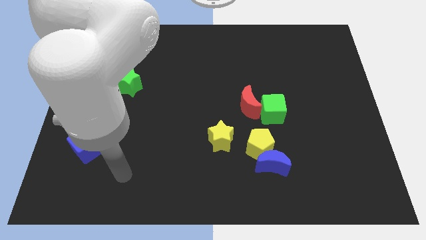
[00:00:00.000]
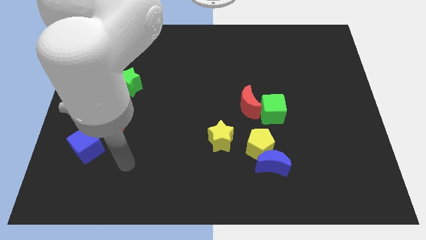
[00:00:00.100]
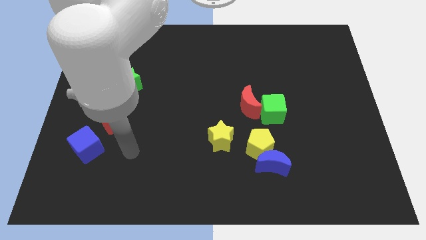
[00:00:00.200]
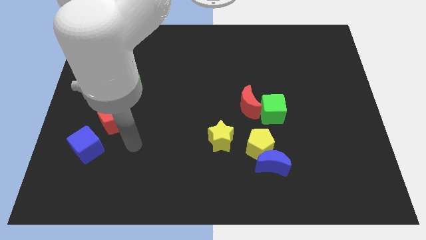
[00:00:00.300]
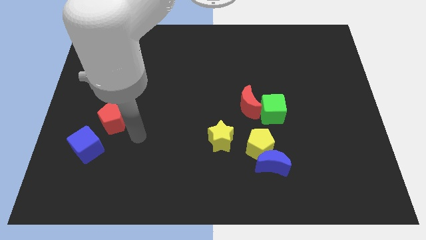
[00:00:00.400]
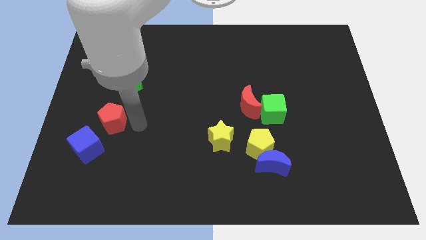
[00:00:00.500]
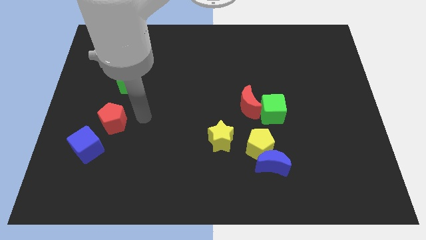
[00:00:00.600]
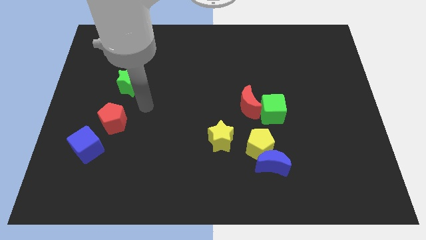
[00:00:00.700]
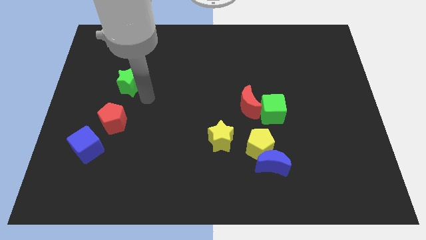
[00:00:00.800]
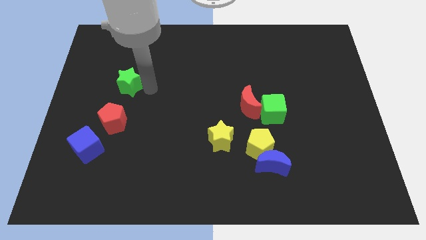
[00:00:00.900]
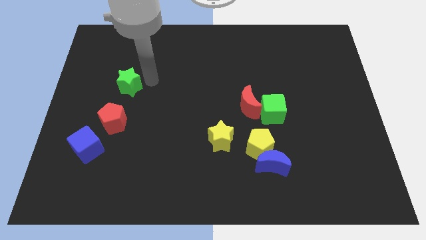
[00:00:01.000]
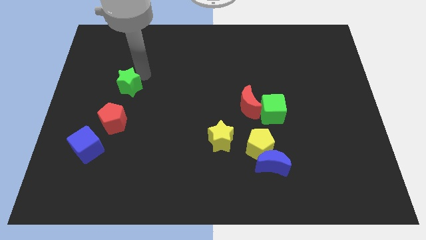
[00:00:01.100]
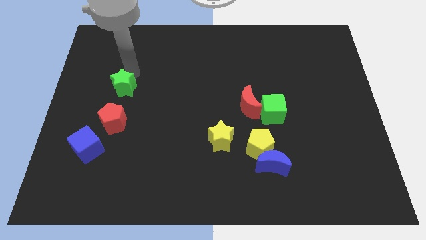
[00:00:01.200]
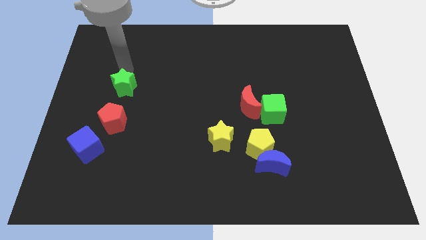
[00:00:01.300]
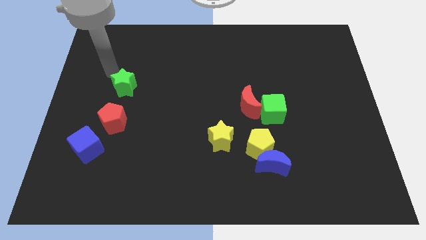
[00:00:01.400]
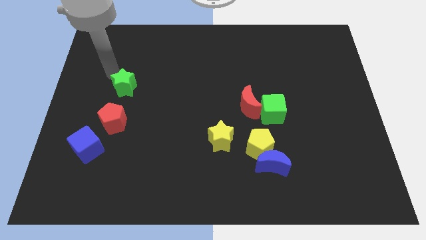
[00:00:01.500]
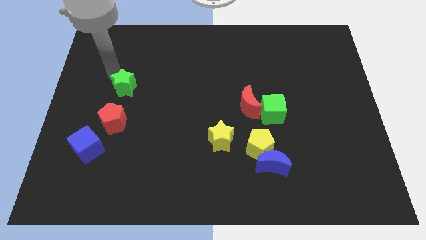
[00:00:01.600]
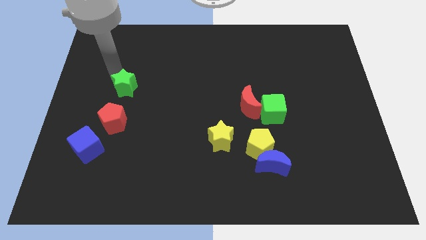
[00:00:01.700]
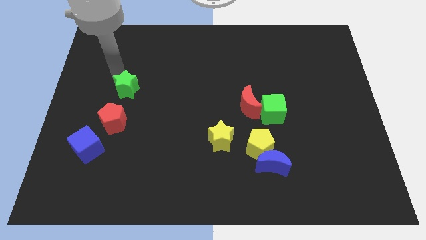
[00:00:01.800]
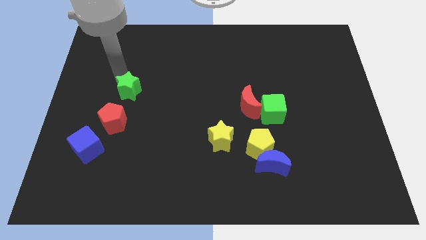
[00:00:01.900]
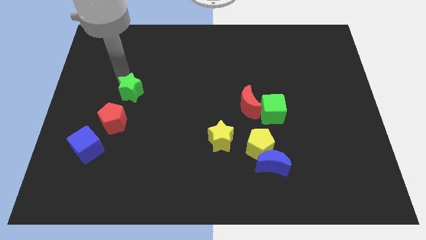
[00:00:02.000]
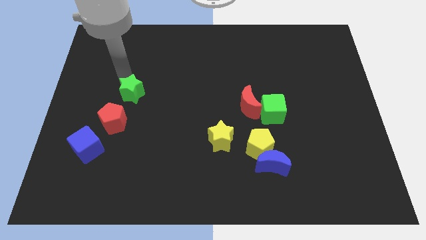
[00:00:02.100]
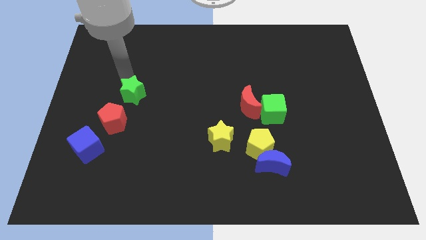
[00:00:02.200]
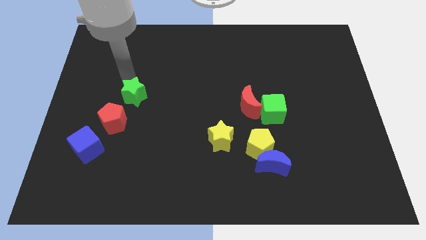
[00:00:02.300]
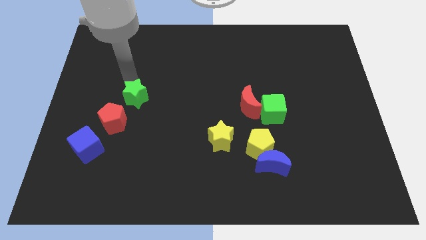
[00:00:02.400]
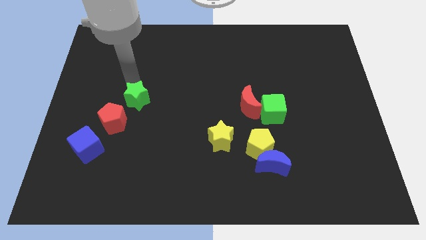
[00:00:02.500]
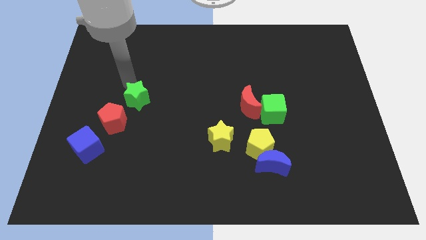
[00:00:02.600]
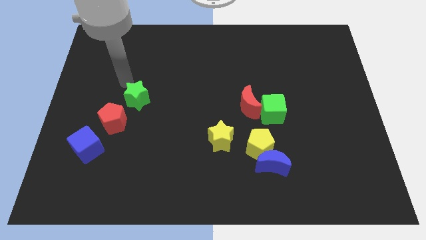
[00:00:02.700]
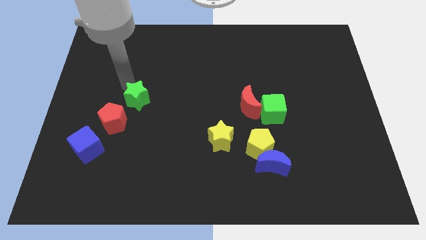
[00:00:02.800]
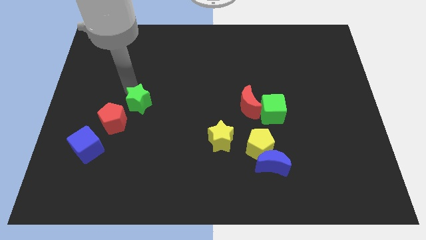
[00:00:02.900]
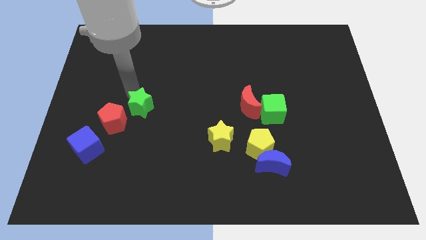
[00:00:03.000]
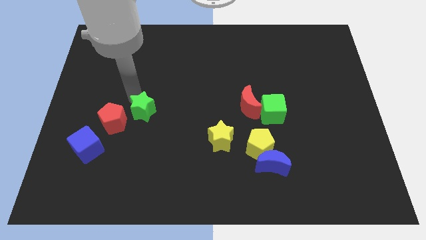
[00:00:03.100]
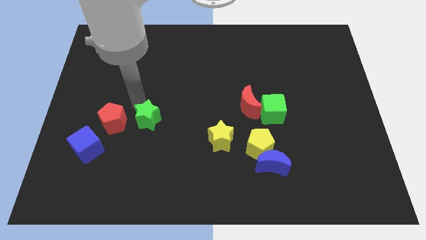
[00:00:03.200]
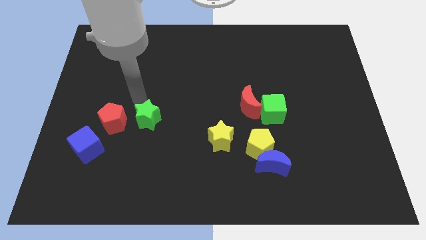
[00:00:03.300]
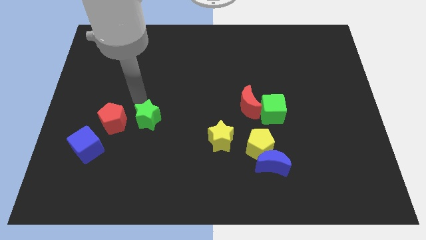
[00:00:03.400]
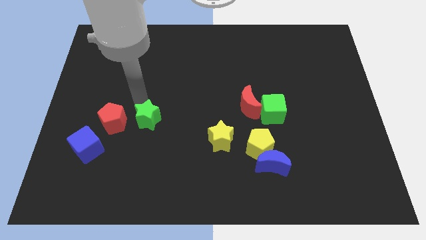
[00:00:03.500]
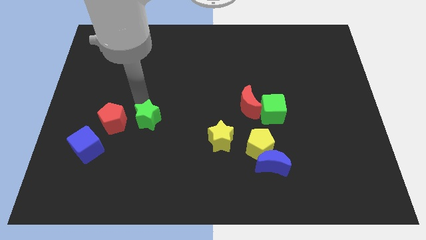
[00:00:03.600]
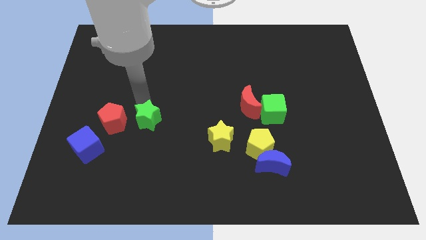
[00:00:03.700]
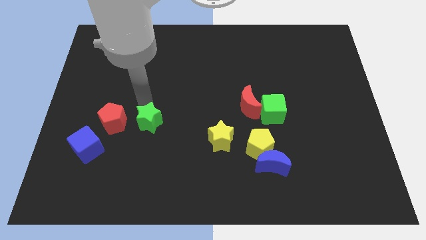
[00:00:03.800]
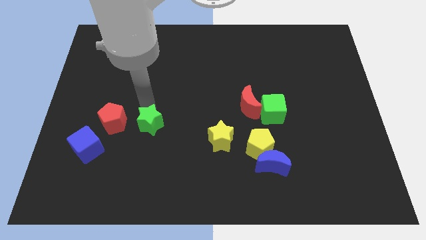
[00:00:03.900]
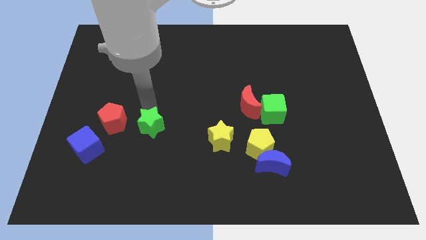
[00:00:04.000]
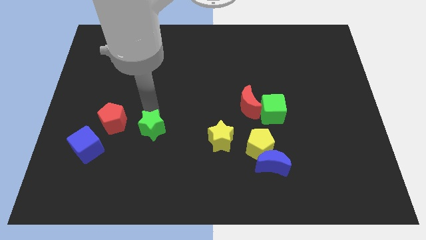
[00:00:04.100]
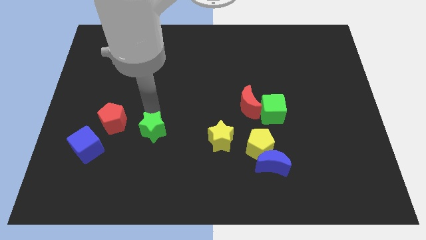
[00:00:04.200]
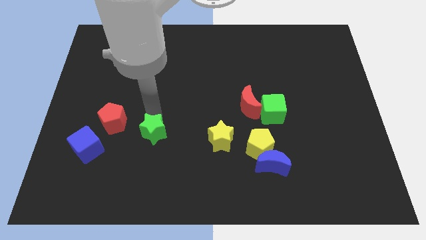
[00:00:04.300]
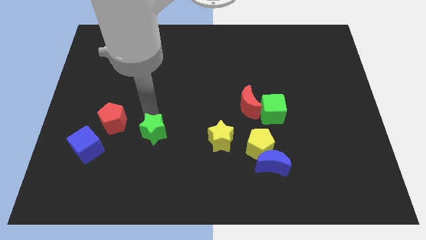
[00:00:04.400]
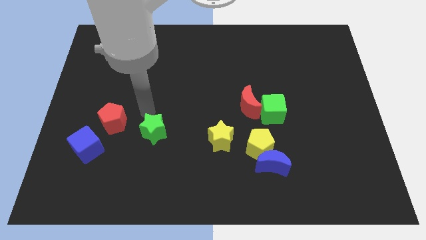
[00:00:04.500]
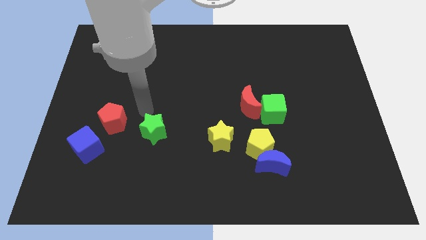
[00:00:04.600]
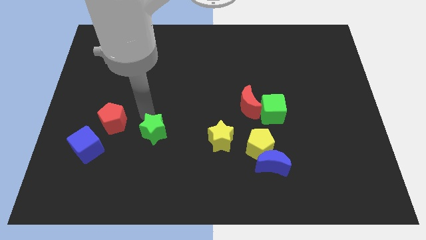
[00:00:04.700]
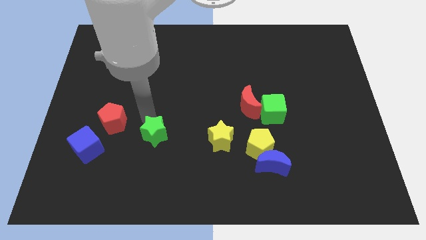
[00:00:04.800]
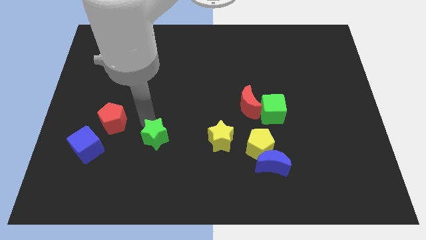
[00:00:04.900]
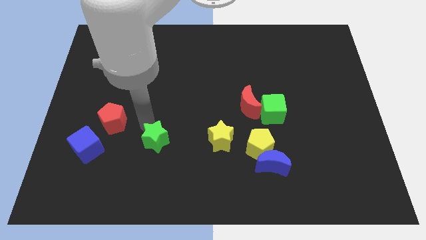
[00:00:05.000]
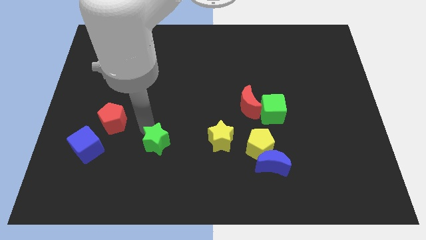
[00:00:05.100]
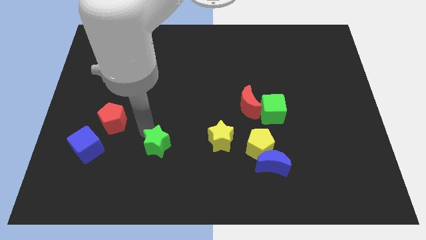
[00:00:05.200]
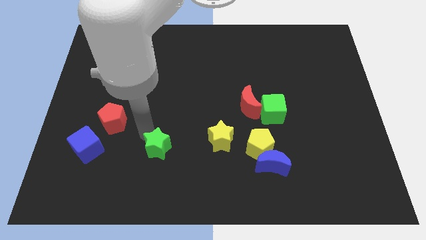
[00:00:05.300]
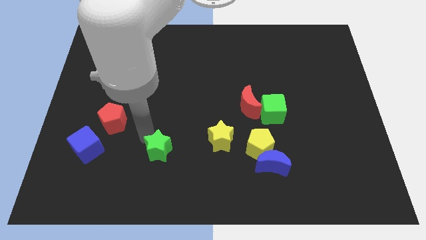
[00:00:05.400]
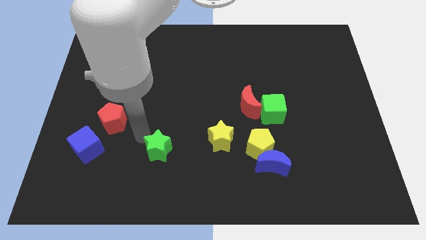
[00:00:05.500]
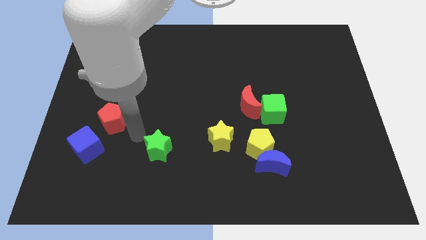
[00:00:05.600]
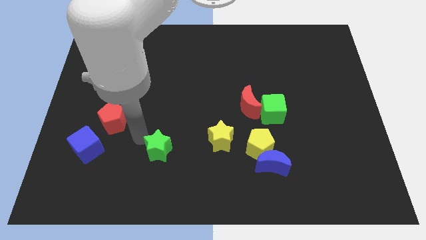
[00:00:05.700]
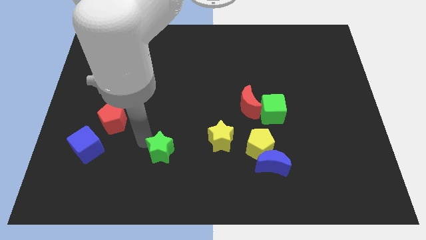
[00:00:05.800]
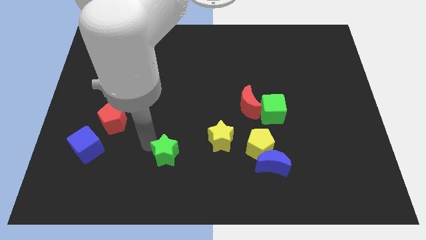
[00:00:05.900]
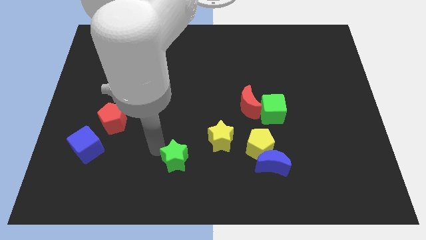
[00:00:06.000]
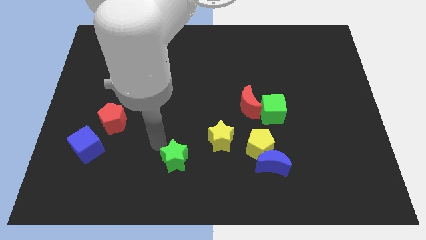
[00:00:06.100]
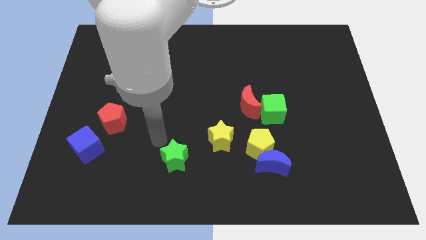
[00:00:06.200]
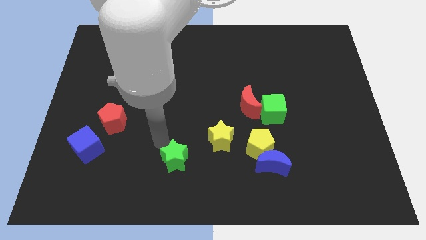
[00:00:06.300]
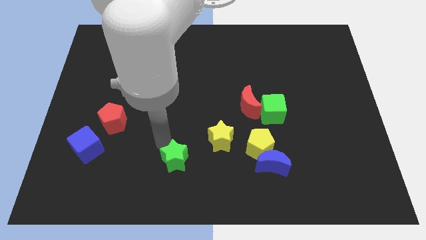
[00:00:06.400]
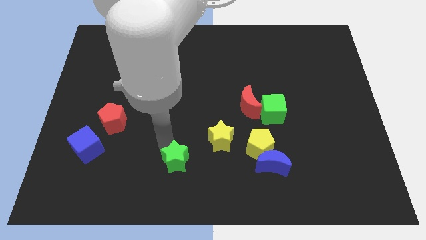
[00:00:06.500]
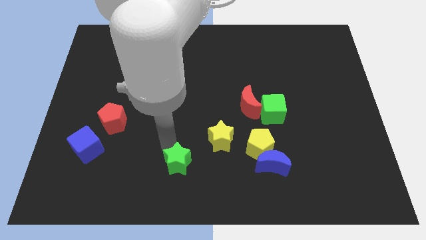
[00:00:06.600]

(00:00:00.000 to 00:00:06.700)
push the green star to the bottom side
